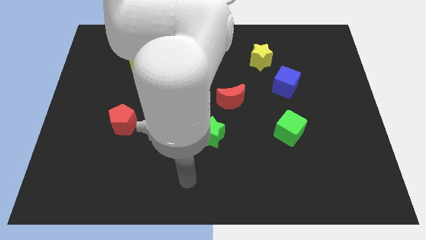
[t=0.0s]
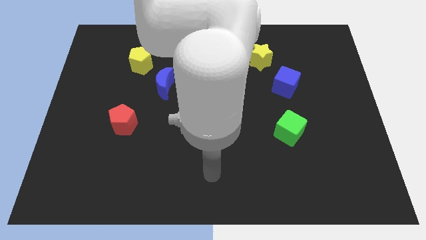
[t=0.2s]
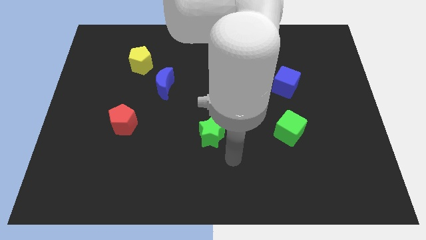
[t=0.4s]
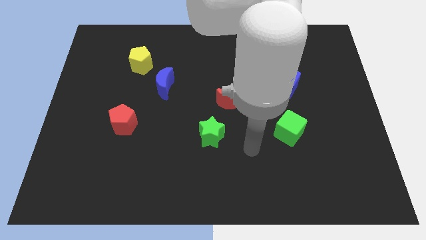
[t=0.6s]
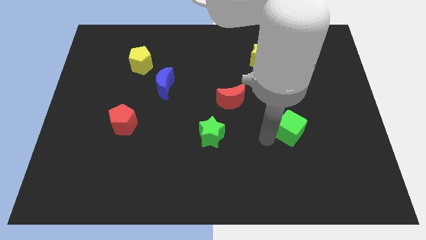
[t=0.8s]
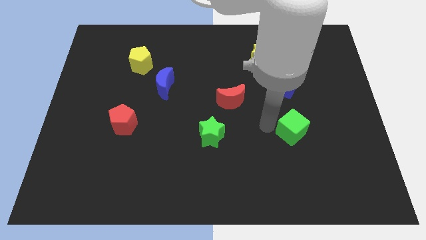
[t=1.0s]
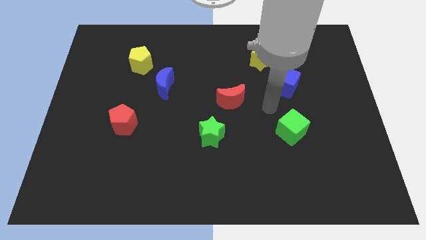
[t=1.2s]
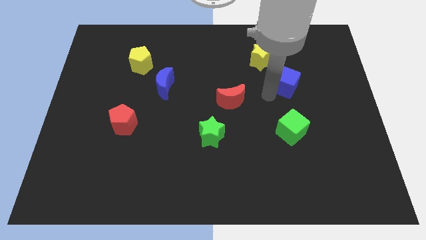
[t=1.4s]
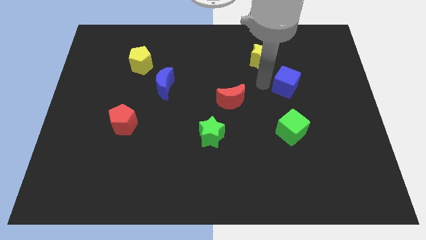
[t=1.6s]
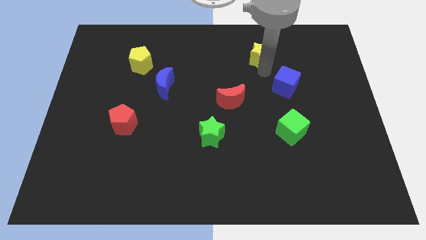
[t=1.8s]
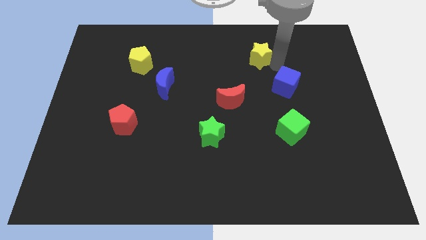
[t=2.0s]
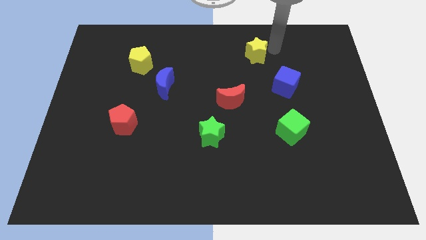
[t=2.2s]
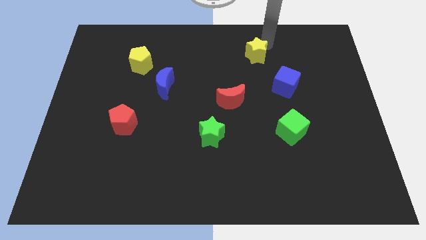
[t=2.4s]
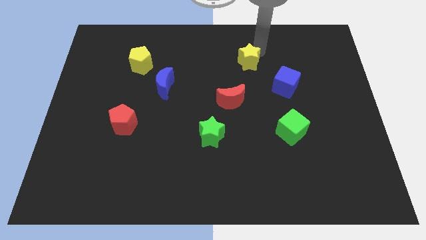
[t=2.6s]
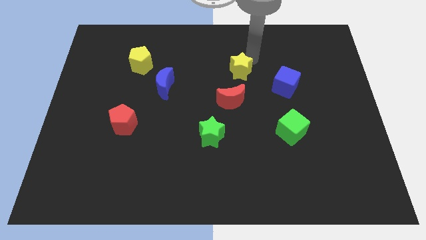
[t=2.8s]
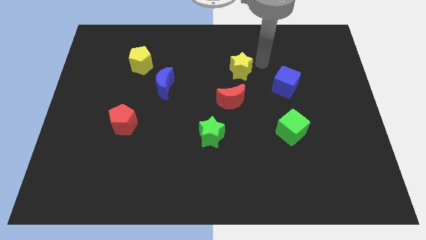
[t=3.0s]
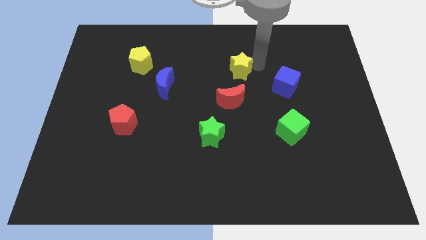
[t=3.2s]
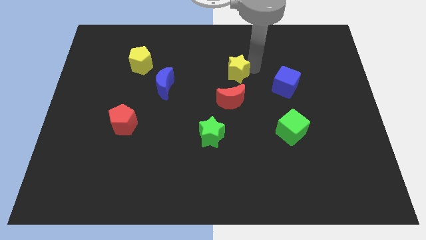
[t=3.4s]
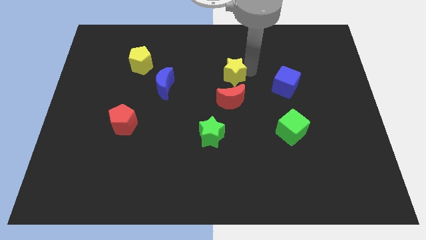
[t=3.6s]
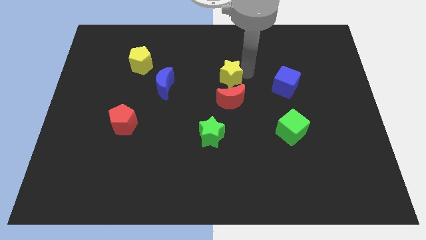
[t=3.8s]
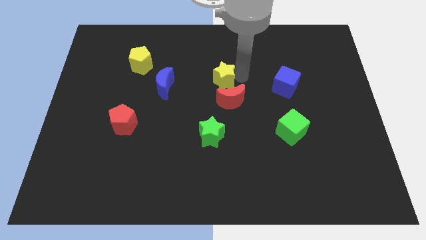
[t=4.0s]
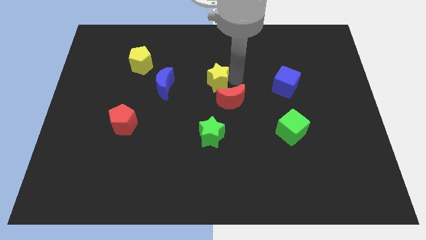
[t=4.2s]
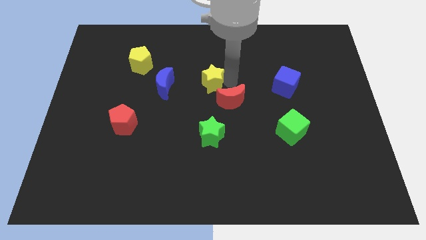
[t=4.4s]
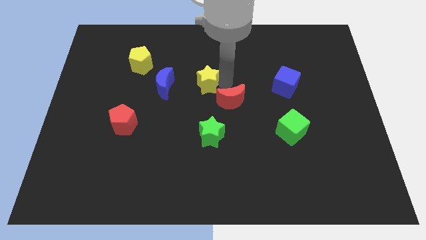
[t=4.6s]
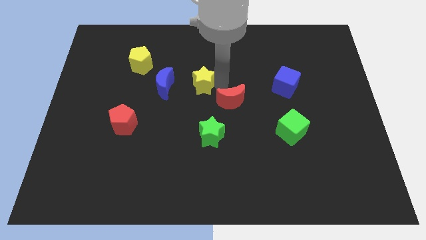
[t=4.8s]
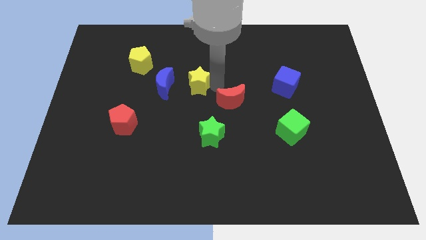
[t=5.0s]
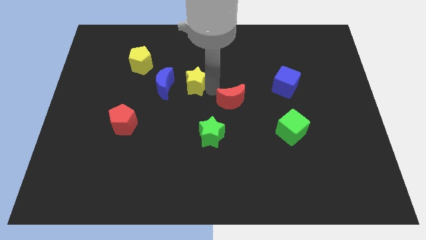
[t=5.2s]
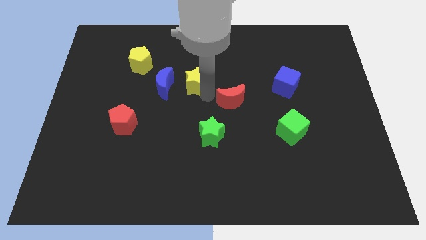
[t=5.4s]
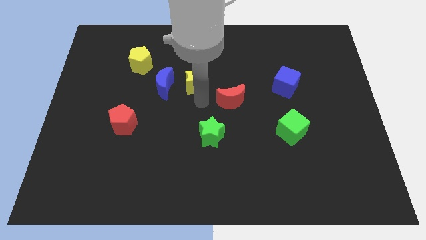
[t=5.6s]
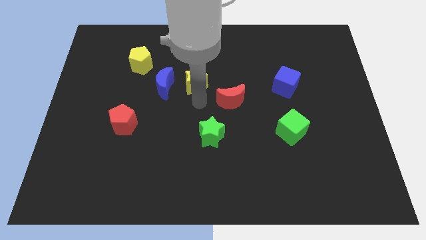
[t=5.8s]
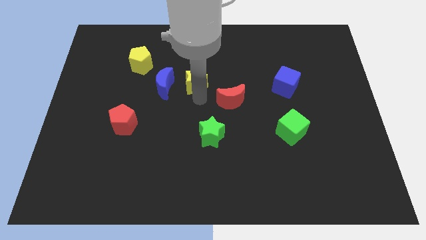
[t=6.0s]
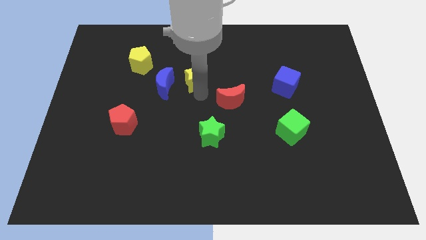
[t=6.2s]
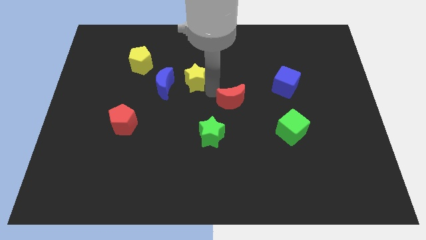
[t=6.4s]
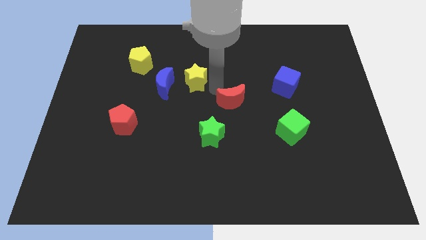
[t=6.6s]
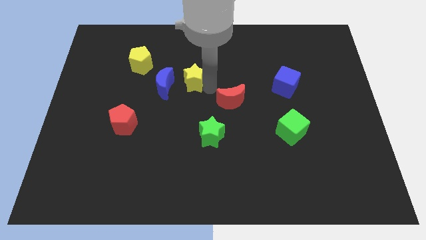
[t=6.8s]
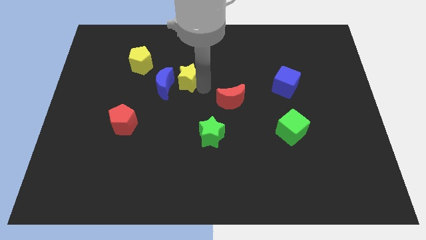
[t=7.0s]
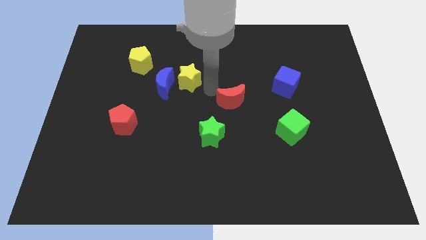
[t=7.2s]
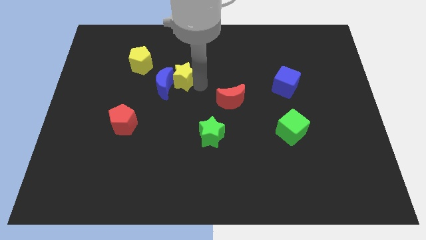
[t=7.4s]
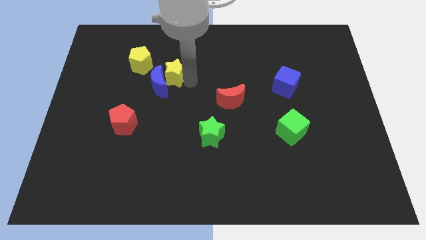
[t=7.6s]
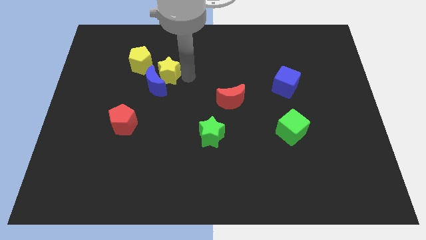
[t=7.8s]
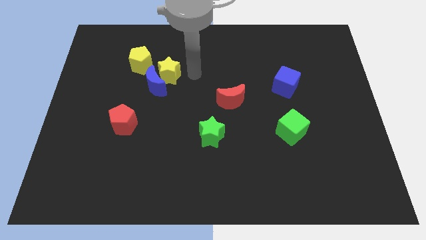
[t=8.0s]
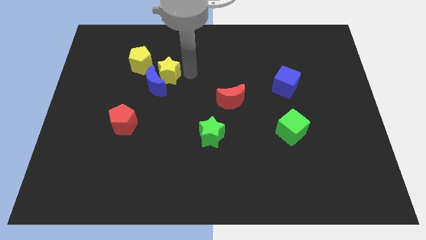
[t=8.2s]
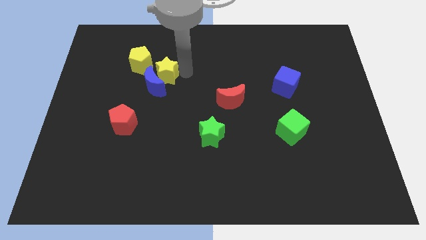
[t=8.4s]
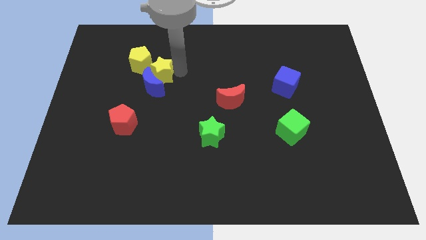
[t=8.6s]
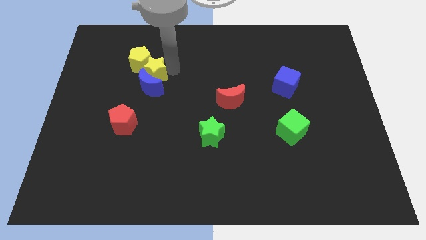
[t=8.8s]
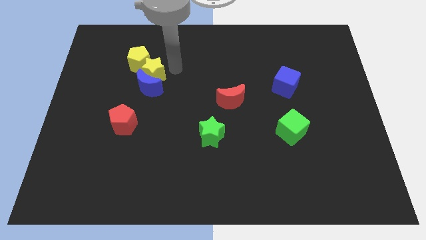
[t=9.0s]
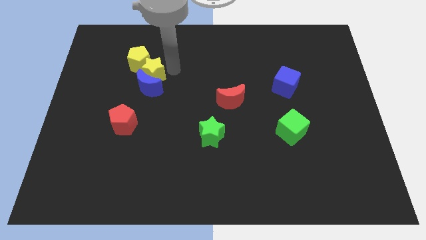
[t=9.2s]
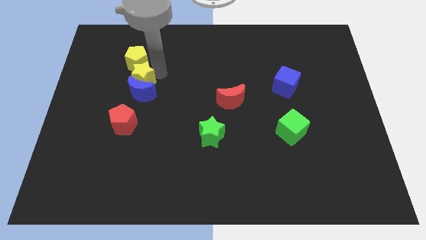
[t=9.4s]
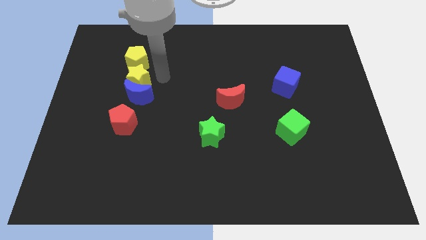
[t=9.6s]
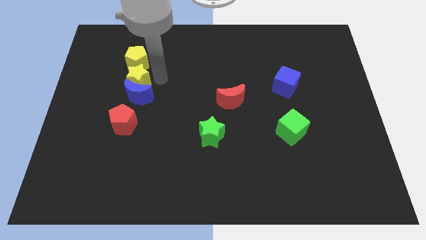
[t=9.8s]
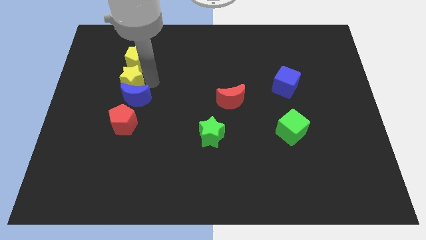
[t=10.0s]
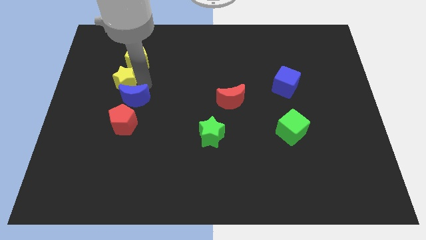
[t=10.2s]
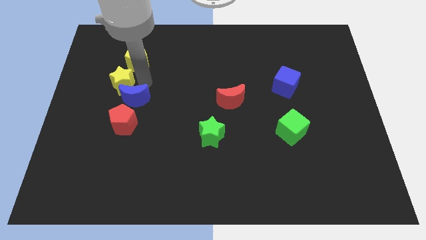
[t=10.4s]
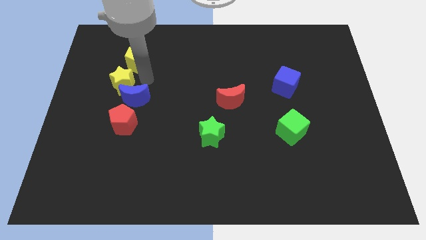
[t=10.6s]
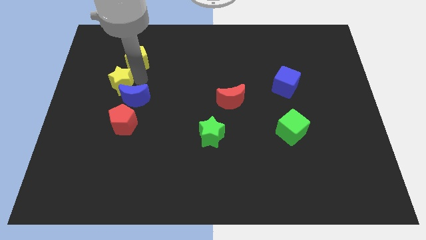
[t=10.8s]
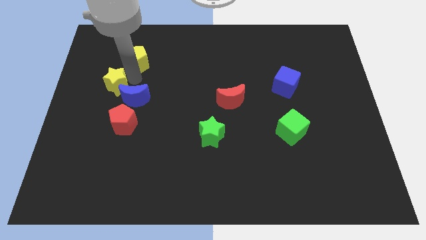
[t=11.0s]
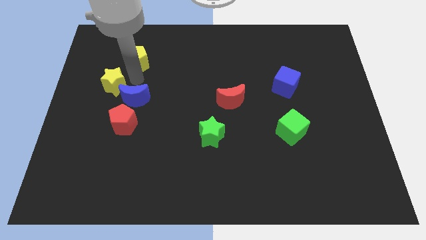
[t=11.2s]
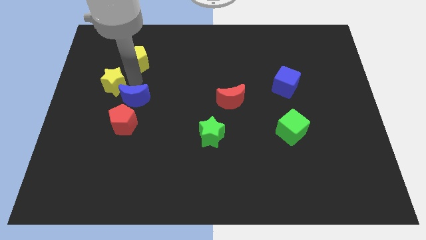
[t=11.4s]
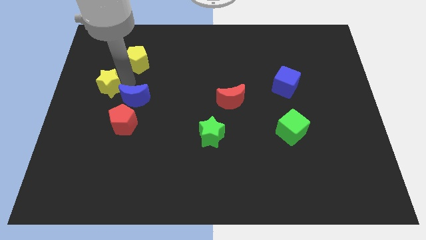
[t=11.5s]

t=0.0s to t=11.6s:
push the yellow star to the left side

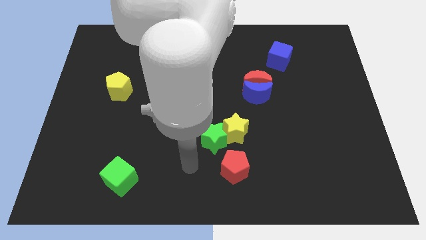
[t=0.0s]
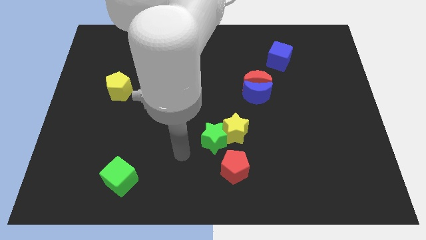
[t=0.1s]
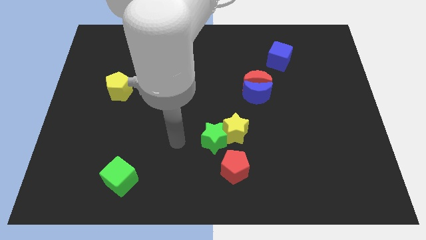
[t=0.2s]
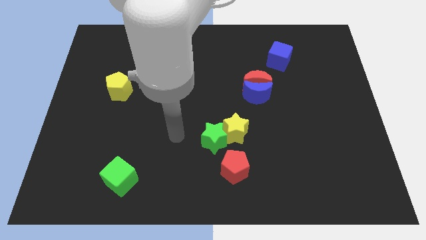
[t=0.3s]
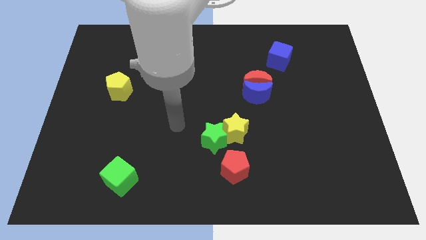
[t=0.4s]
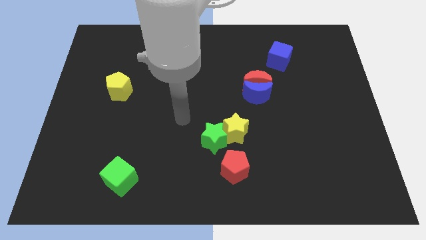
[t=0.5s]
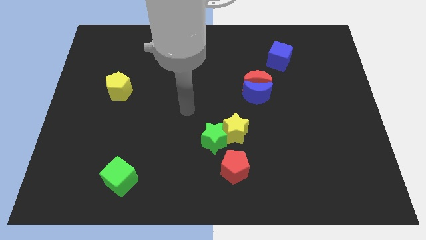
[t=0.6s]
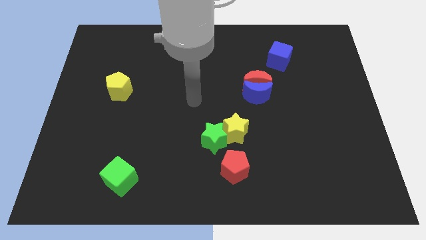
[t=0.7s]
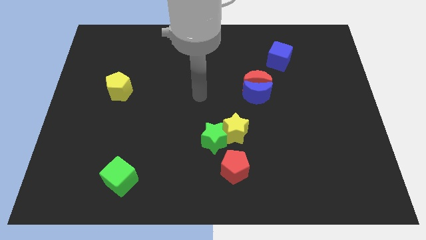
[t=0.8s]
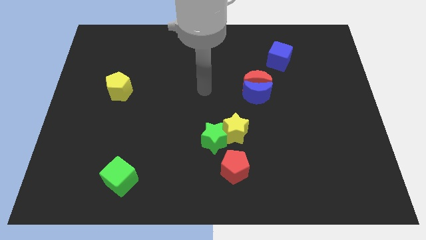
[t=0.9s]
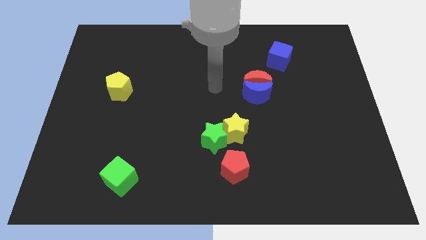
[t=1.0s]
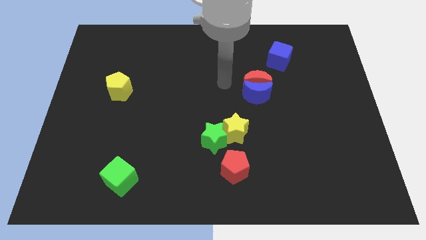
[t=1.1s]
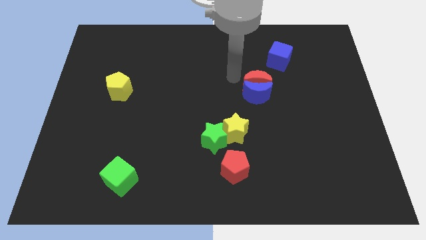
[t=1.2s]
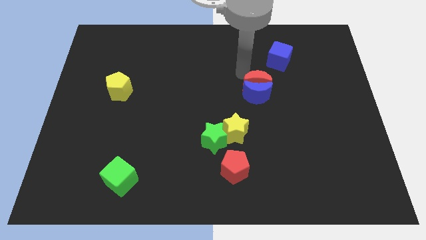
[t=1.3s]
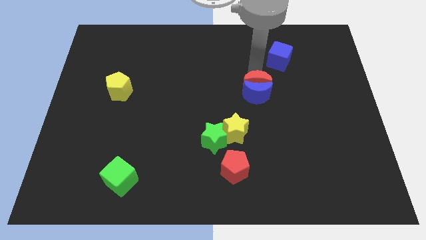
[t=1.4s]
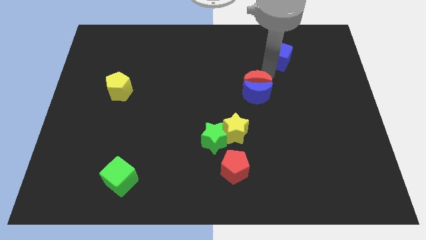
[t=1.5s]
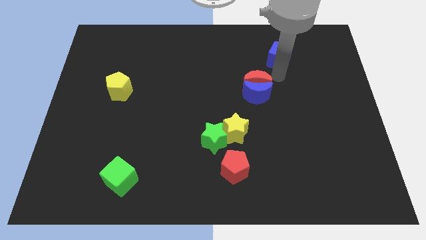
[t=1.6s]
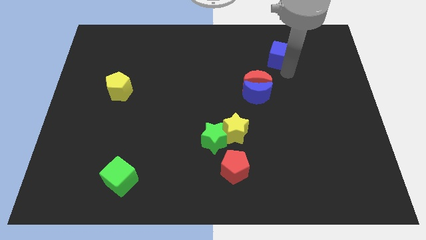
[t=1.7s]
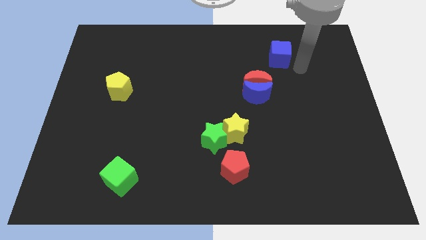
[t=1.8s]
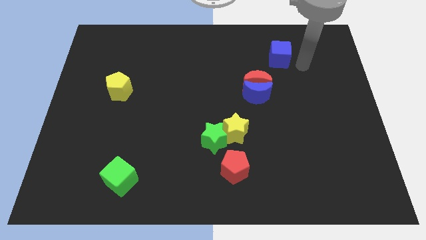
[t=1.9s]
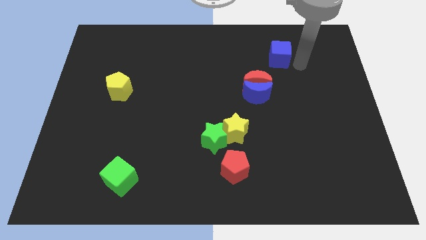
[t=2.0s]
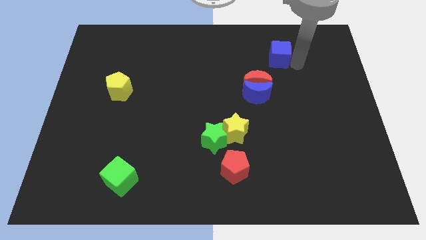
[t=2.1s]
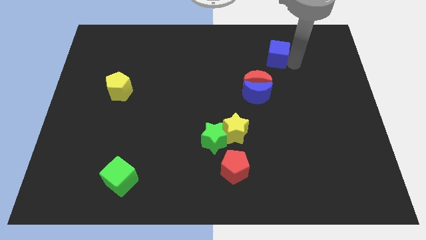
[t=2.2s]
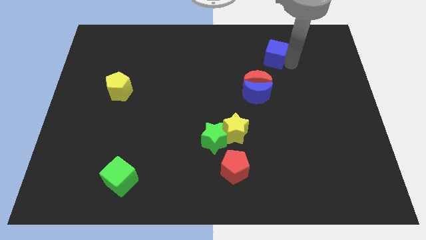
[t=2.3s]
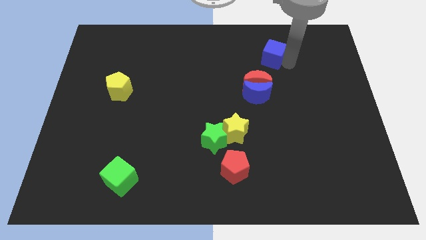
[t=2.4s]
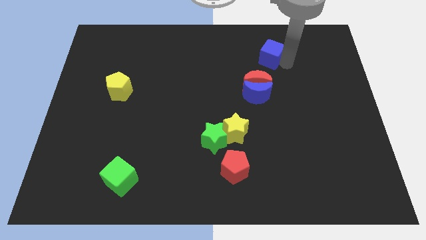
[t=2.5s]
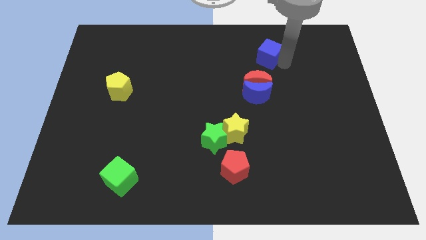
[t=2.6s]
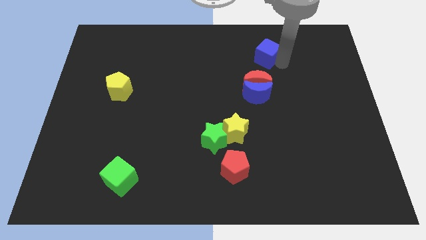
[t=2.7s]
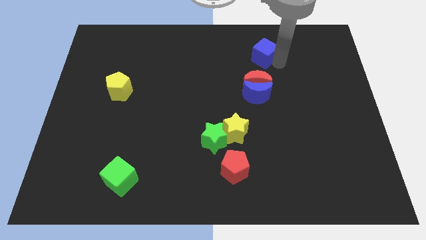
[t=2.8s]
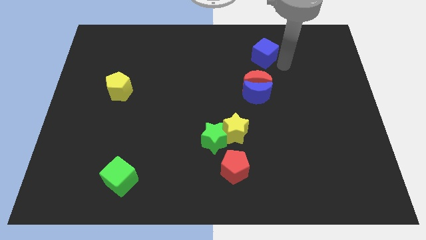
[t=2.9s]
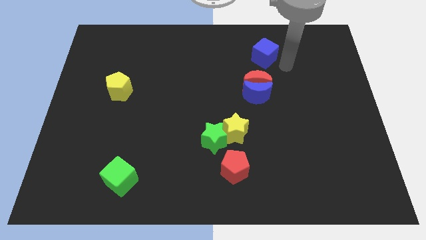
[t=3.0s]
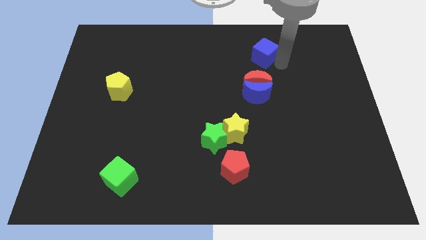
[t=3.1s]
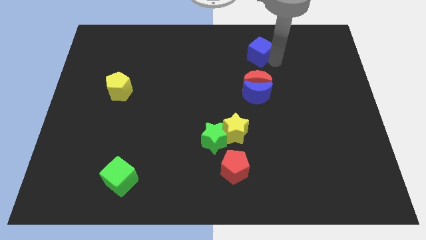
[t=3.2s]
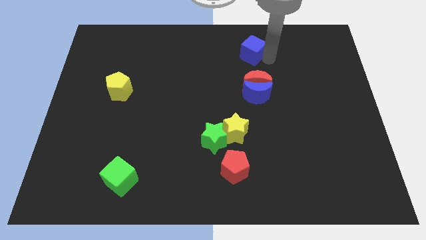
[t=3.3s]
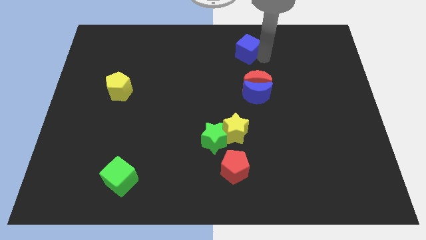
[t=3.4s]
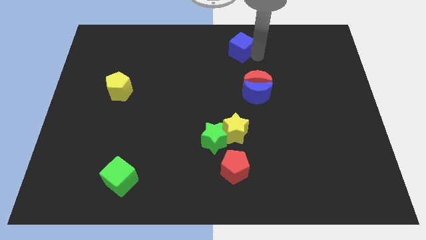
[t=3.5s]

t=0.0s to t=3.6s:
push the blue cube to the towards your base
